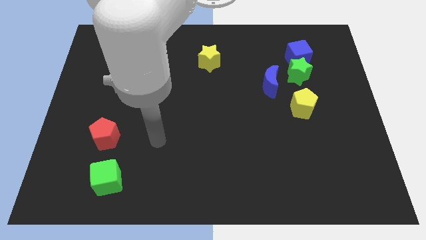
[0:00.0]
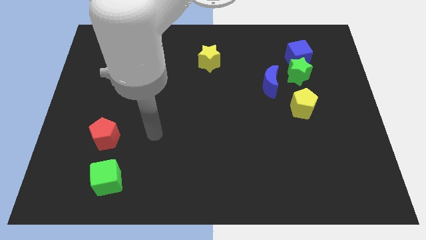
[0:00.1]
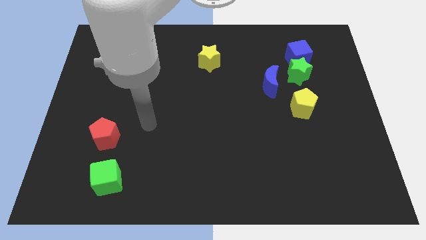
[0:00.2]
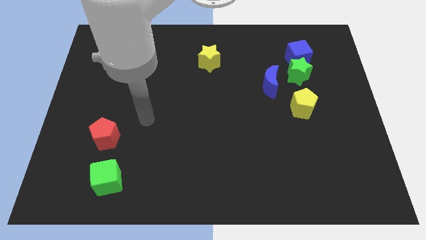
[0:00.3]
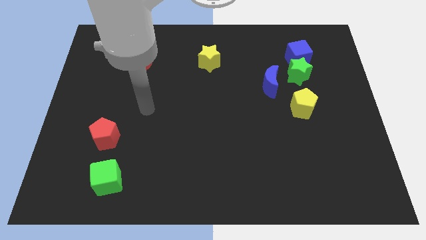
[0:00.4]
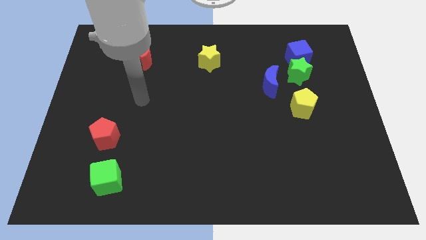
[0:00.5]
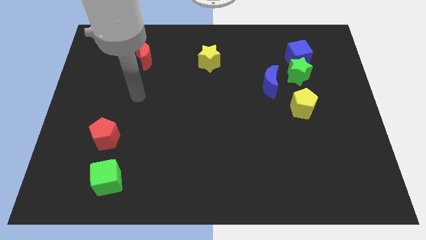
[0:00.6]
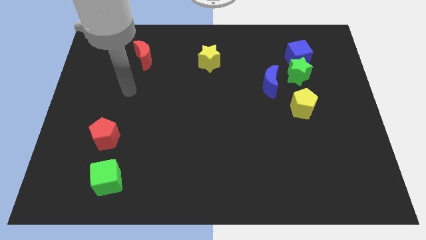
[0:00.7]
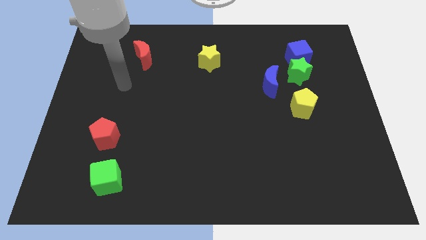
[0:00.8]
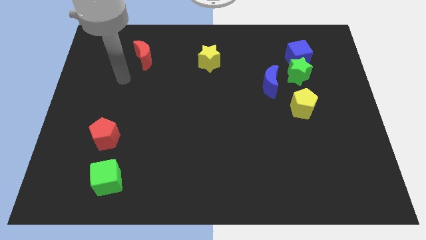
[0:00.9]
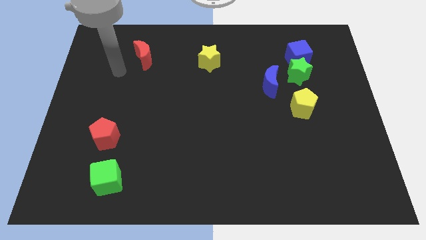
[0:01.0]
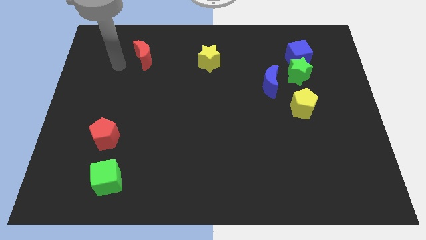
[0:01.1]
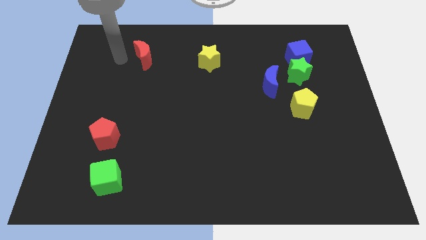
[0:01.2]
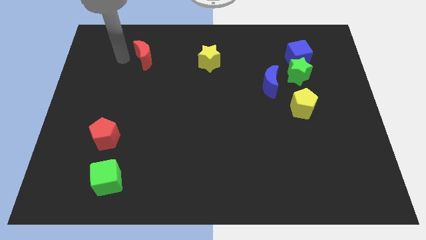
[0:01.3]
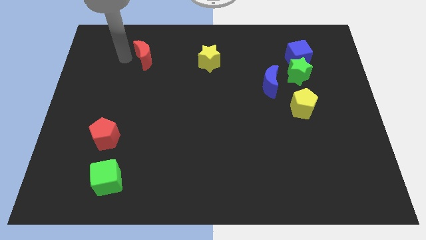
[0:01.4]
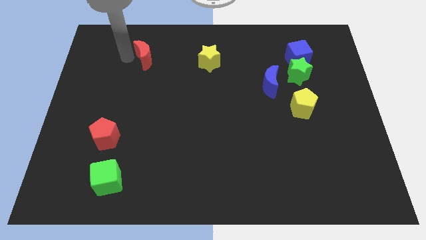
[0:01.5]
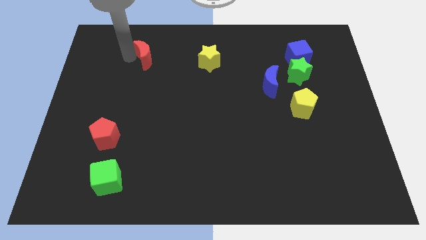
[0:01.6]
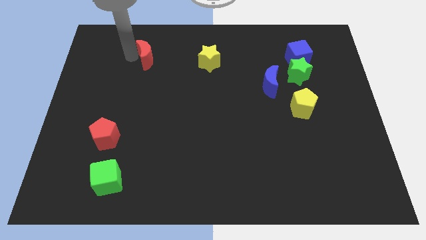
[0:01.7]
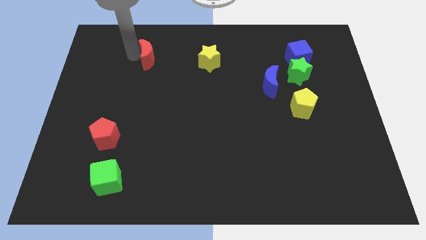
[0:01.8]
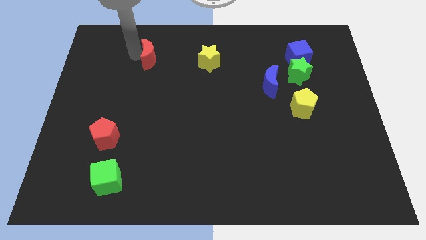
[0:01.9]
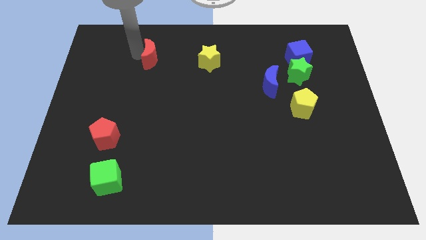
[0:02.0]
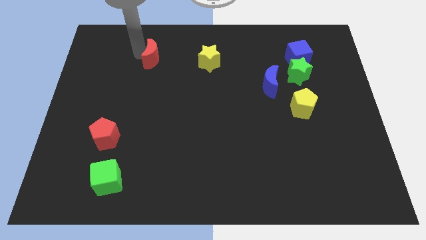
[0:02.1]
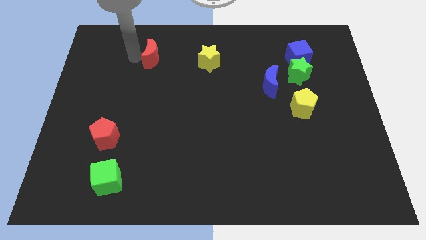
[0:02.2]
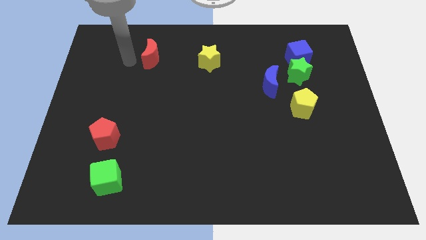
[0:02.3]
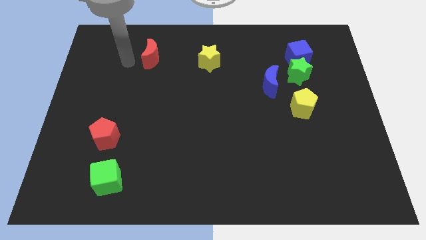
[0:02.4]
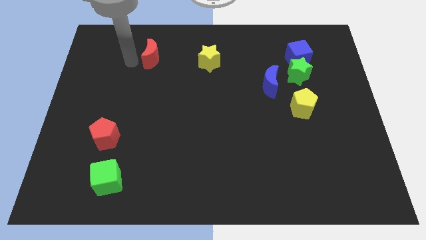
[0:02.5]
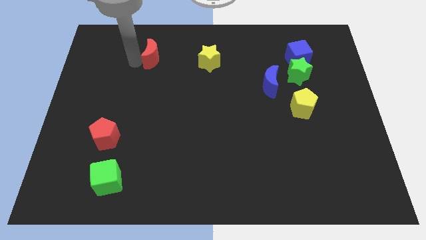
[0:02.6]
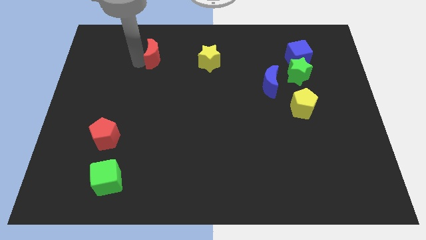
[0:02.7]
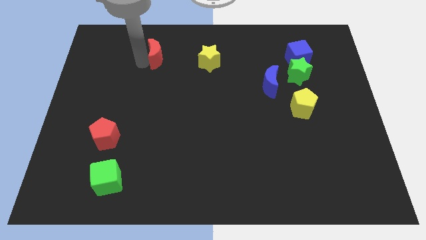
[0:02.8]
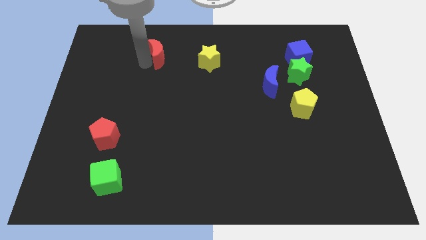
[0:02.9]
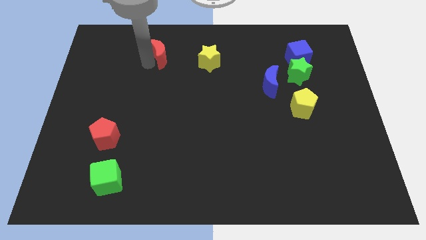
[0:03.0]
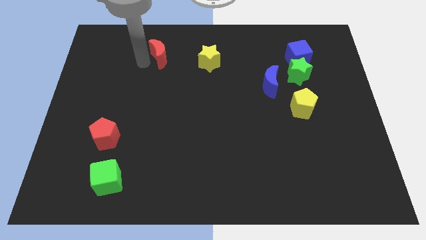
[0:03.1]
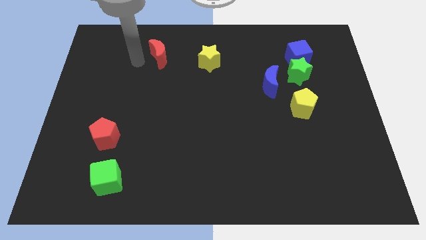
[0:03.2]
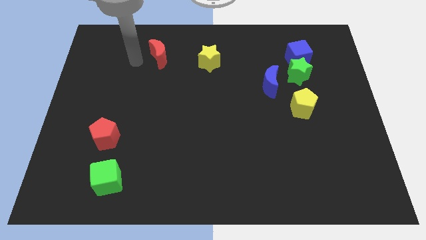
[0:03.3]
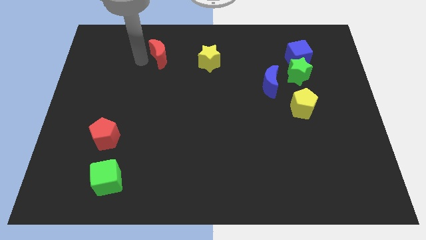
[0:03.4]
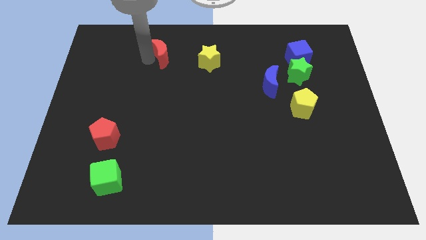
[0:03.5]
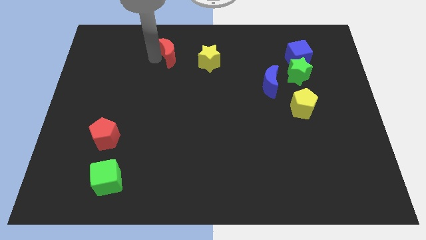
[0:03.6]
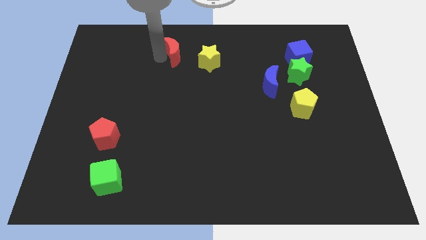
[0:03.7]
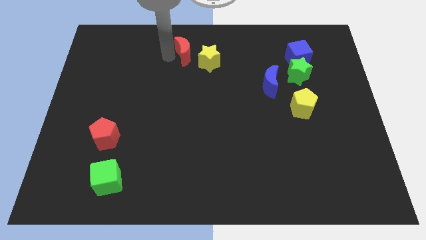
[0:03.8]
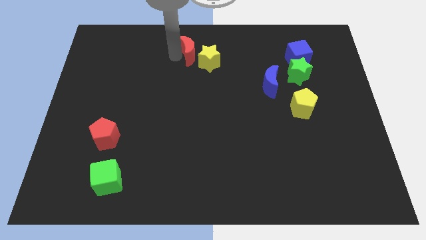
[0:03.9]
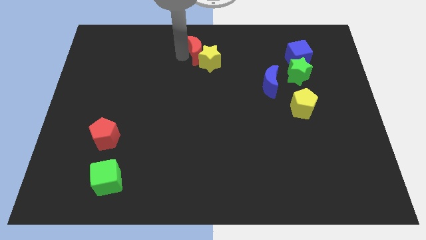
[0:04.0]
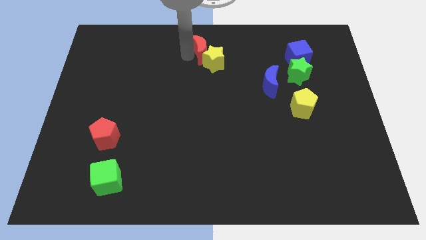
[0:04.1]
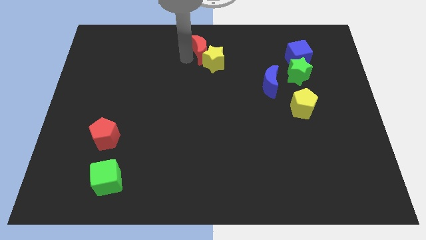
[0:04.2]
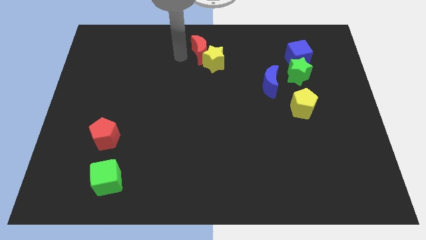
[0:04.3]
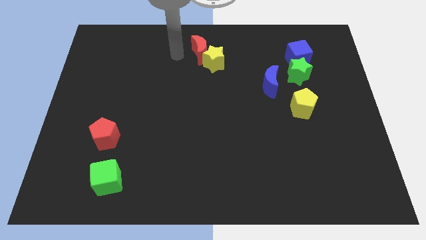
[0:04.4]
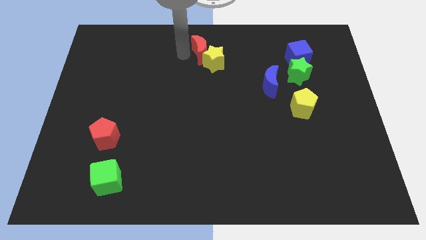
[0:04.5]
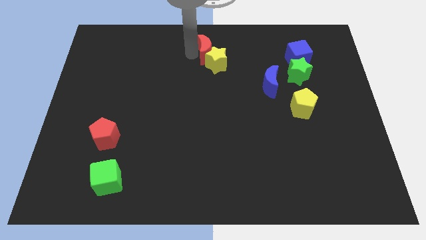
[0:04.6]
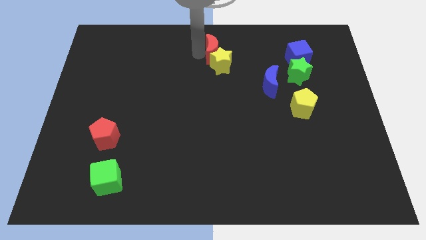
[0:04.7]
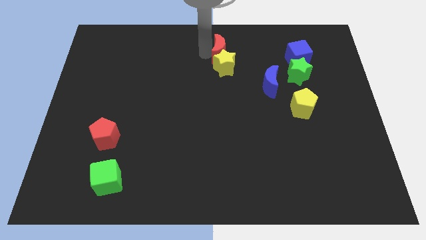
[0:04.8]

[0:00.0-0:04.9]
push the red moon to the right

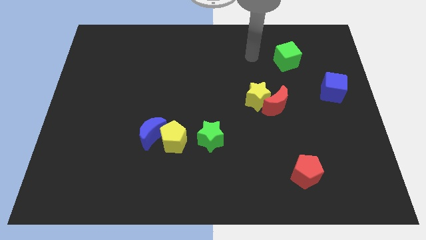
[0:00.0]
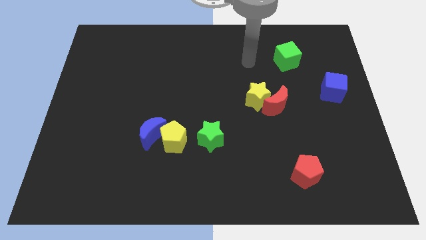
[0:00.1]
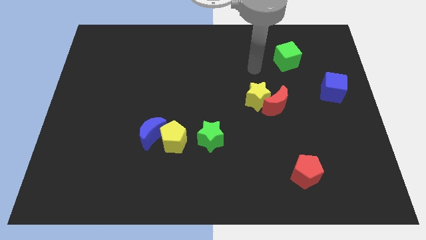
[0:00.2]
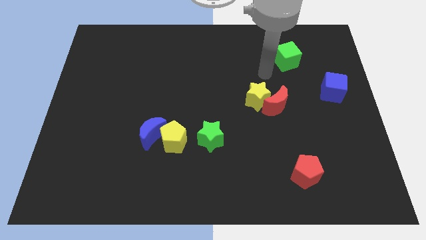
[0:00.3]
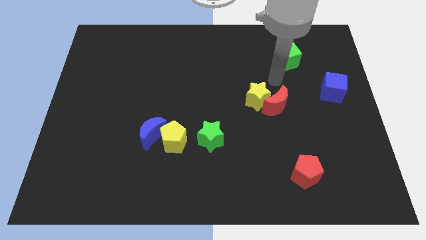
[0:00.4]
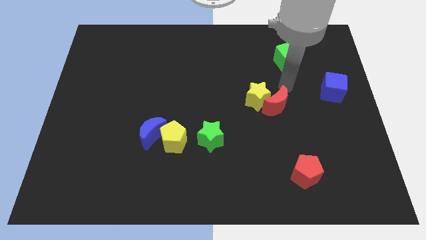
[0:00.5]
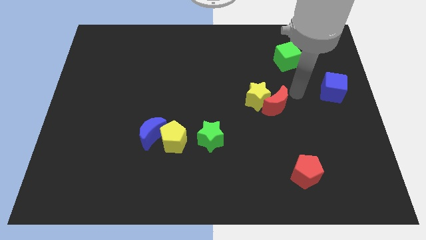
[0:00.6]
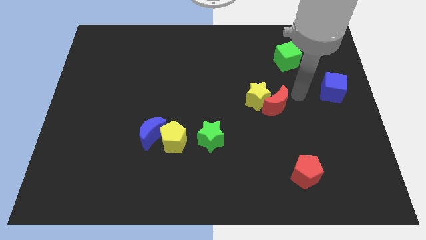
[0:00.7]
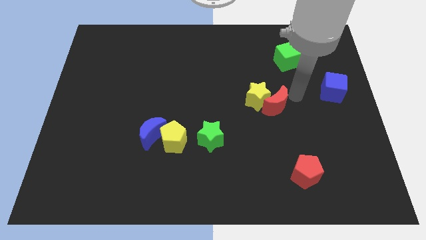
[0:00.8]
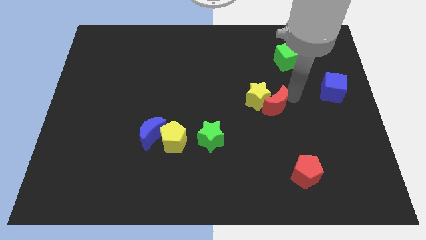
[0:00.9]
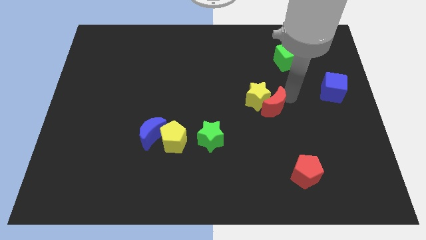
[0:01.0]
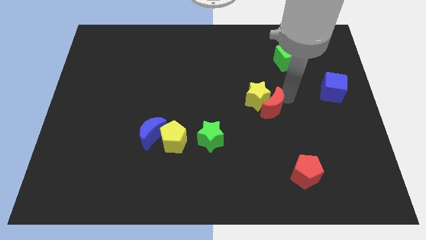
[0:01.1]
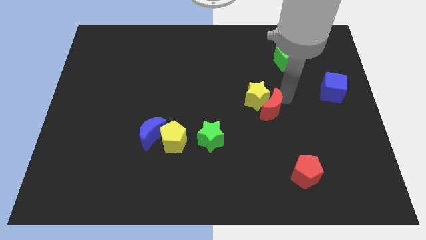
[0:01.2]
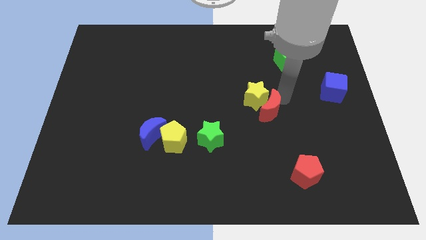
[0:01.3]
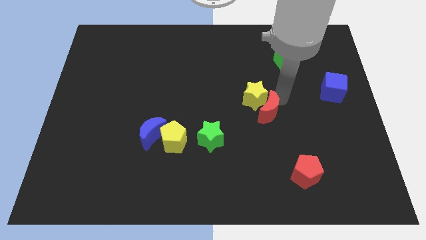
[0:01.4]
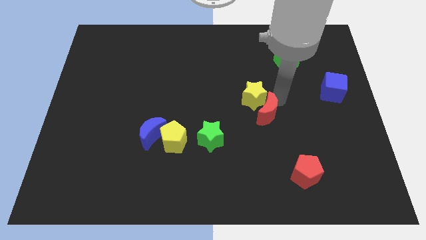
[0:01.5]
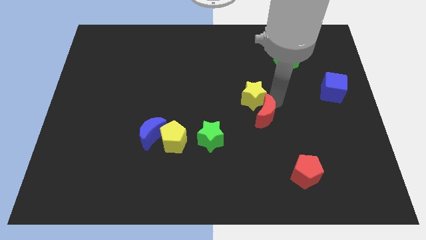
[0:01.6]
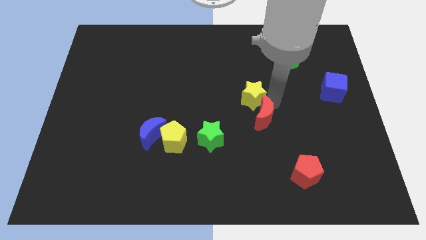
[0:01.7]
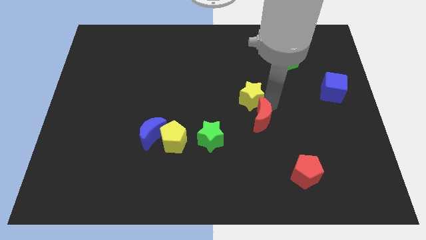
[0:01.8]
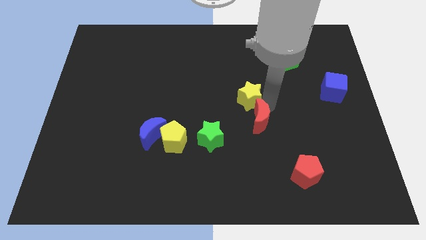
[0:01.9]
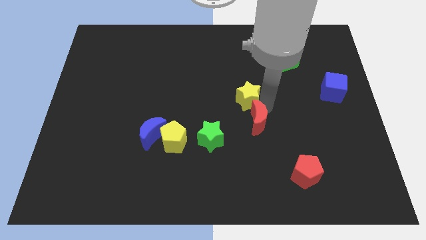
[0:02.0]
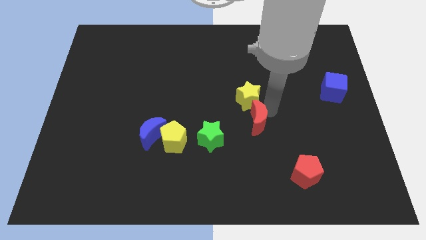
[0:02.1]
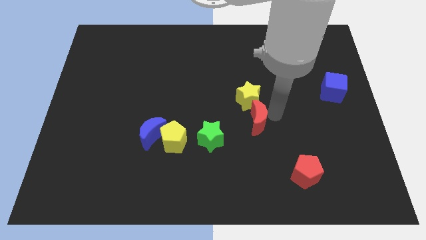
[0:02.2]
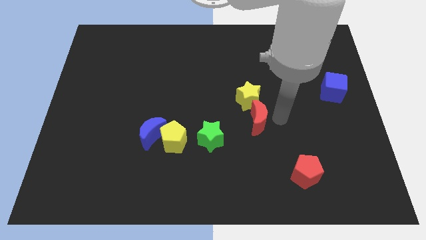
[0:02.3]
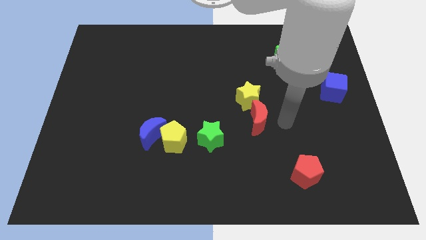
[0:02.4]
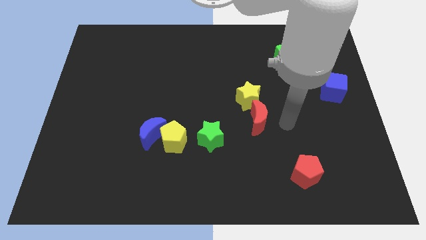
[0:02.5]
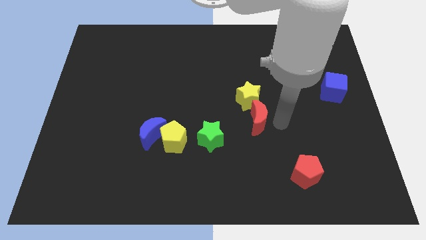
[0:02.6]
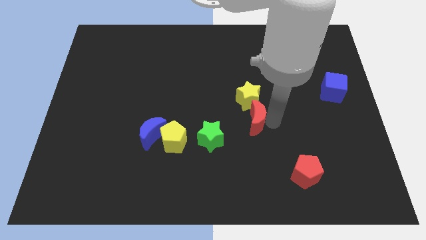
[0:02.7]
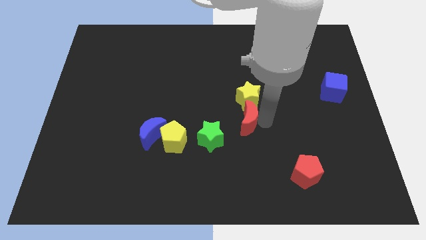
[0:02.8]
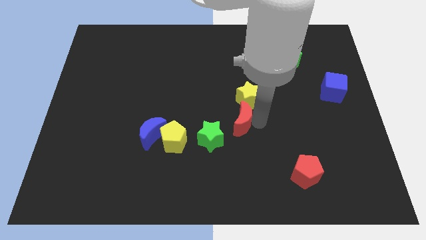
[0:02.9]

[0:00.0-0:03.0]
slightly push the red moon left

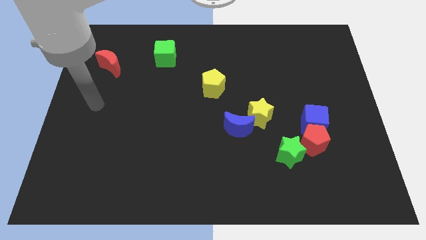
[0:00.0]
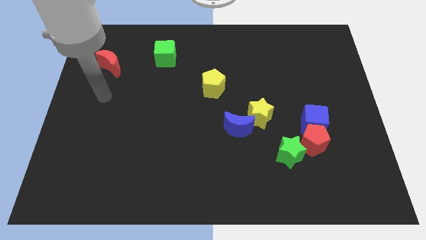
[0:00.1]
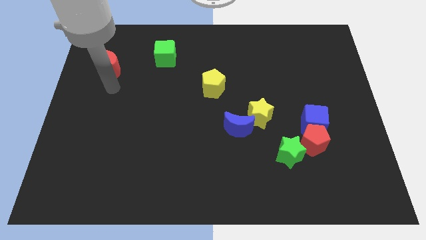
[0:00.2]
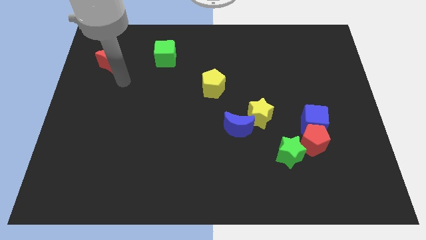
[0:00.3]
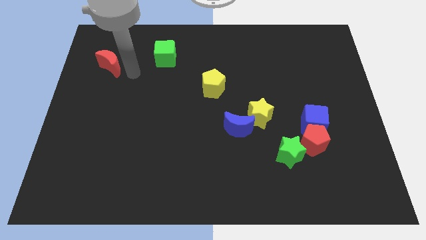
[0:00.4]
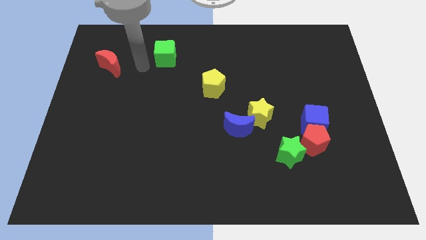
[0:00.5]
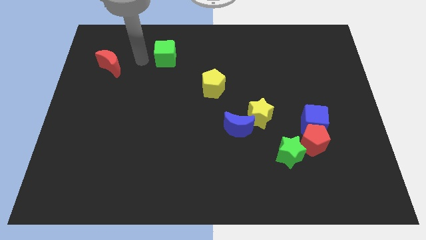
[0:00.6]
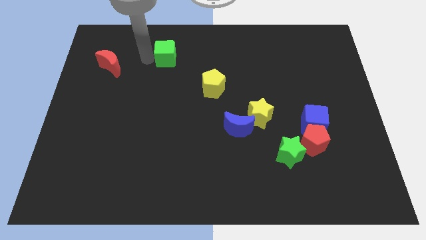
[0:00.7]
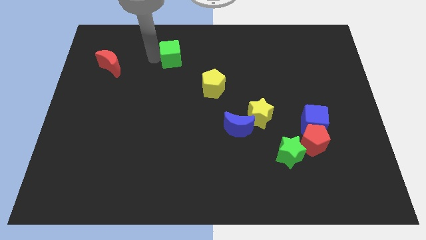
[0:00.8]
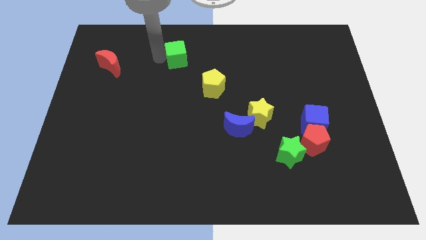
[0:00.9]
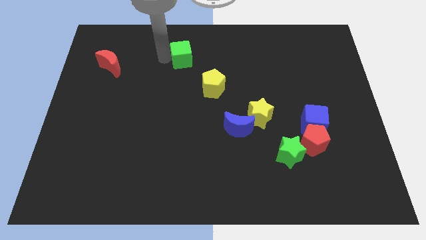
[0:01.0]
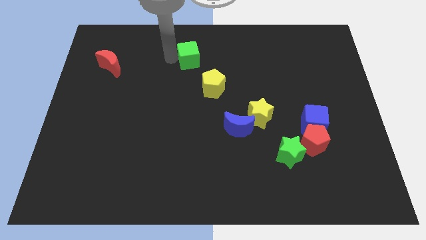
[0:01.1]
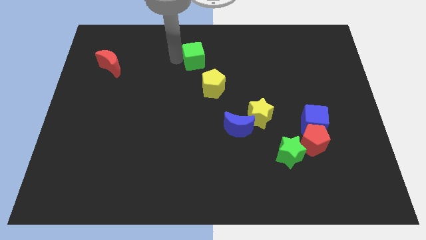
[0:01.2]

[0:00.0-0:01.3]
slide the green cube to the right a little bit
